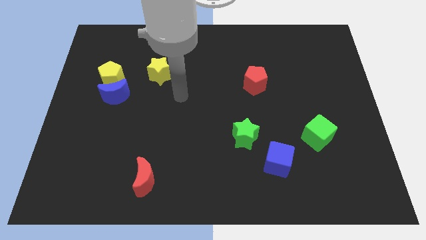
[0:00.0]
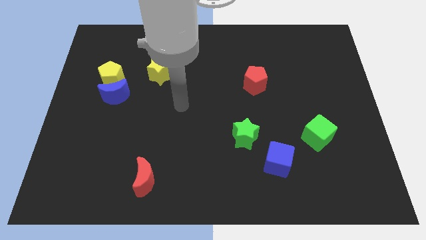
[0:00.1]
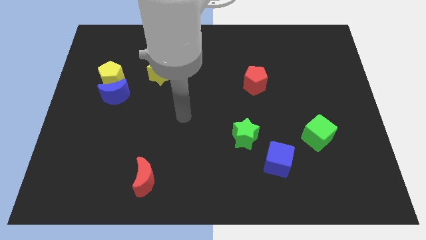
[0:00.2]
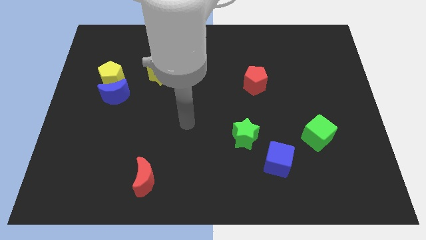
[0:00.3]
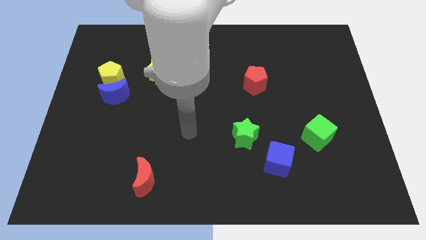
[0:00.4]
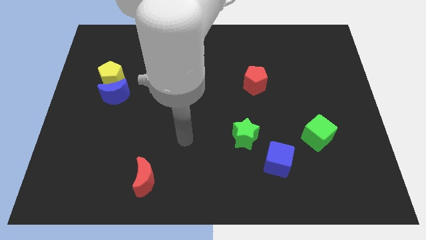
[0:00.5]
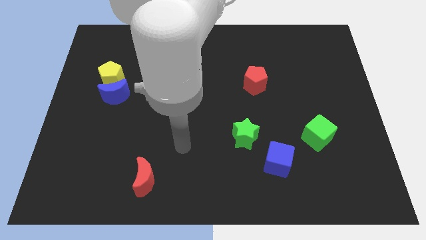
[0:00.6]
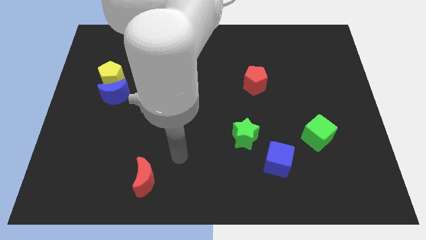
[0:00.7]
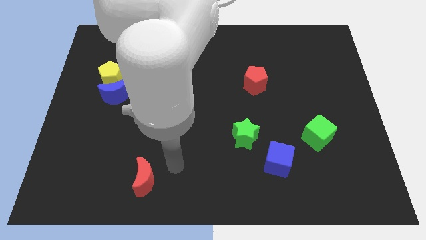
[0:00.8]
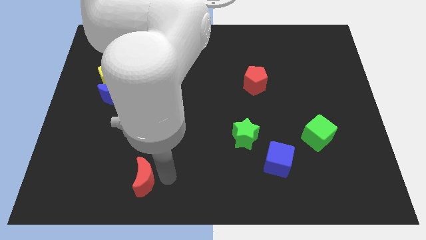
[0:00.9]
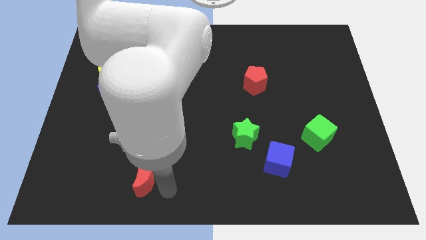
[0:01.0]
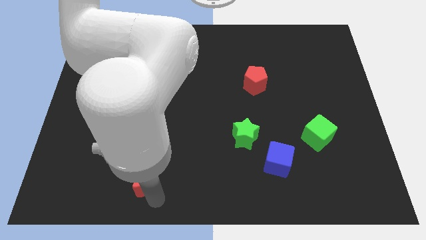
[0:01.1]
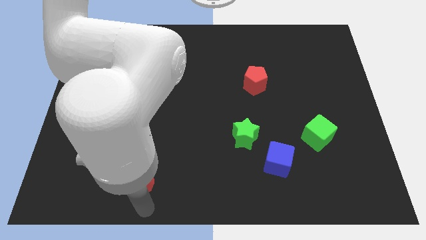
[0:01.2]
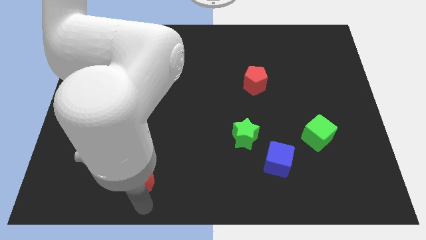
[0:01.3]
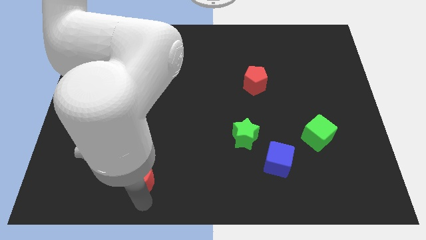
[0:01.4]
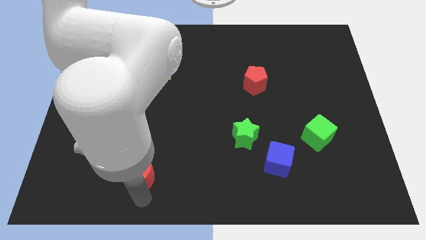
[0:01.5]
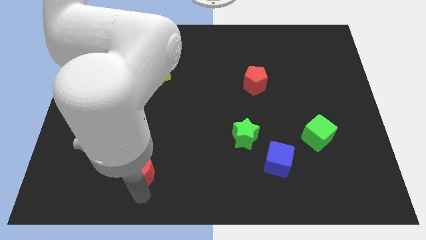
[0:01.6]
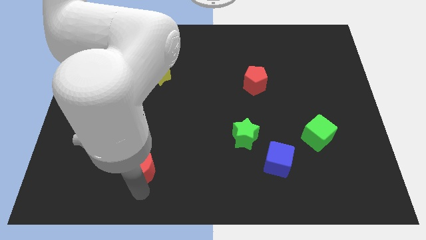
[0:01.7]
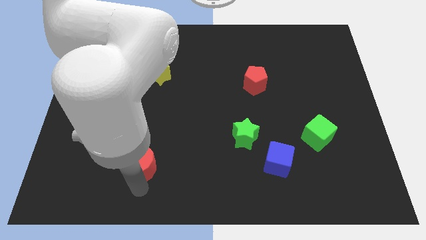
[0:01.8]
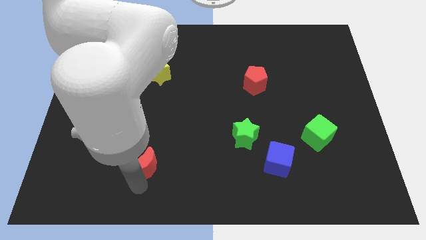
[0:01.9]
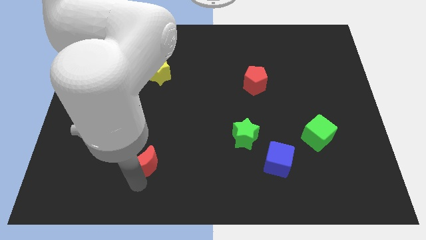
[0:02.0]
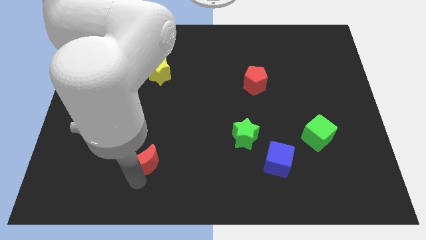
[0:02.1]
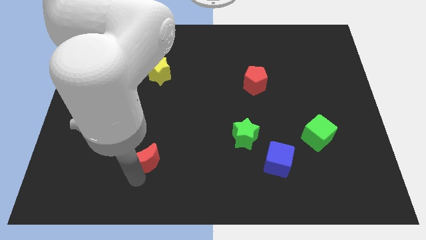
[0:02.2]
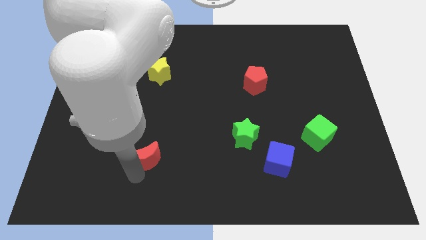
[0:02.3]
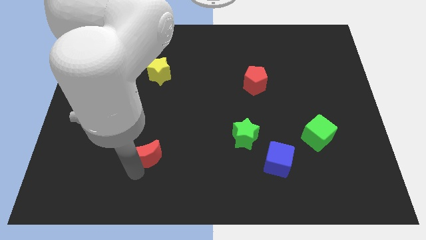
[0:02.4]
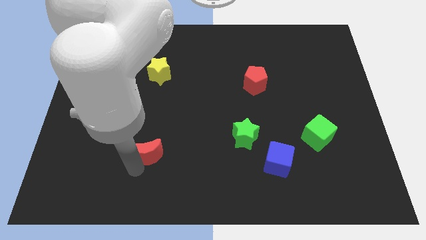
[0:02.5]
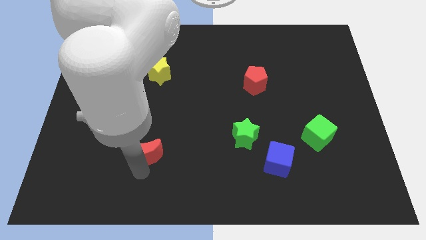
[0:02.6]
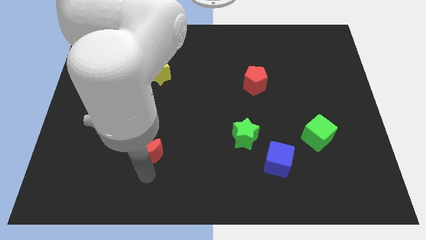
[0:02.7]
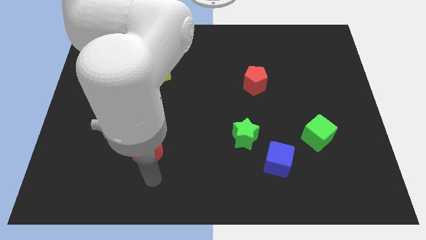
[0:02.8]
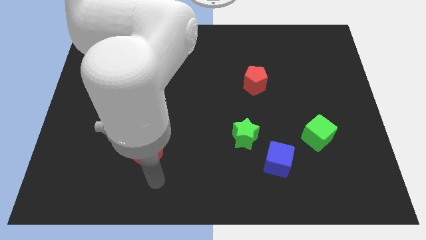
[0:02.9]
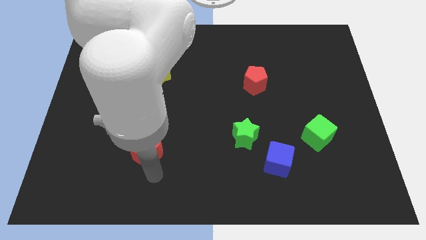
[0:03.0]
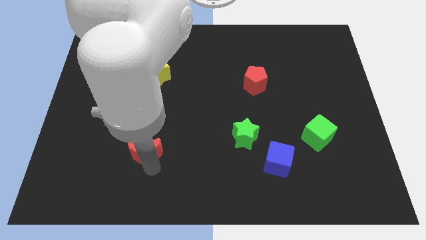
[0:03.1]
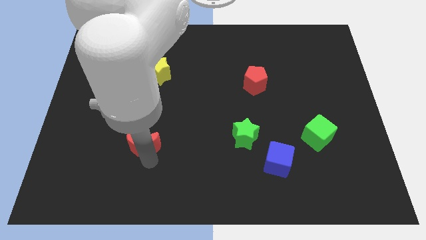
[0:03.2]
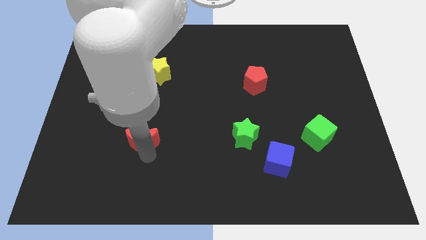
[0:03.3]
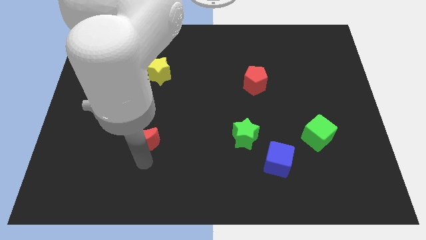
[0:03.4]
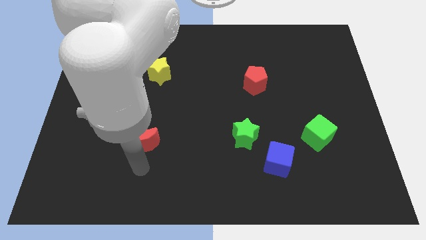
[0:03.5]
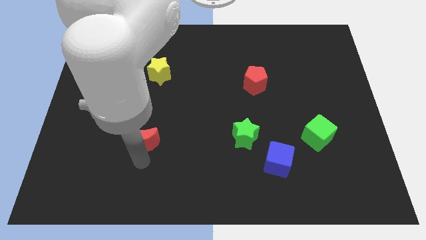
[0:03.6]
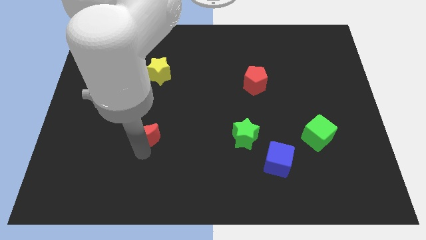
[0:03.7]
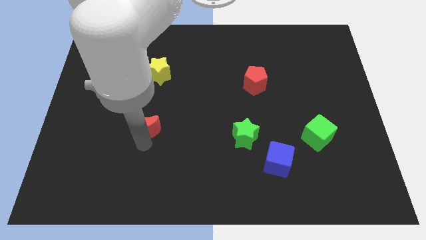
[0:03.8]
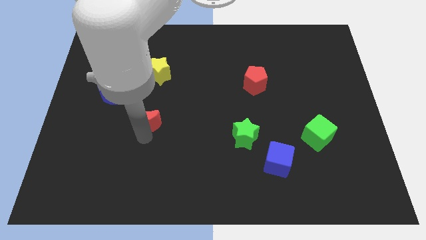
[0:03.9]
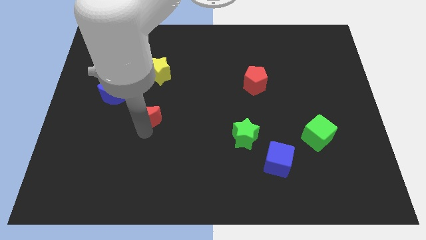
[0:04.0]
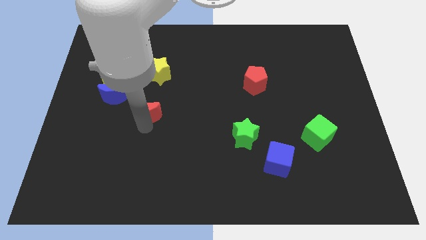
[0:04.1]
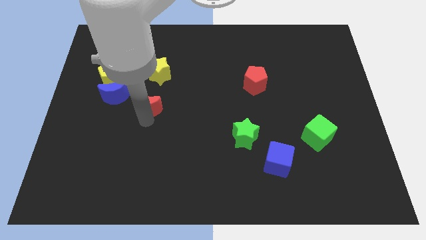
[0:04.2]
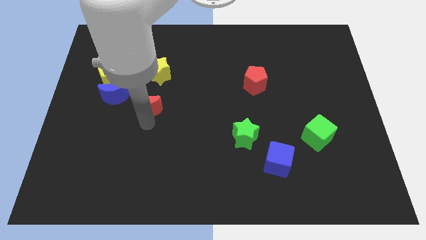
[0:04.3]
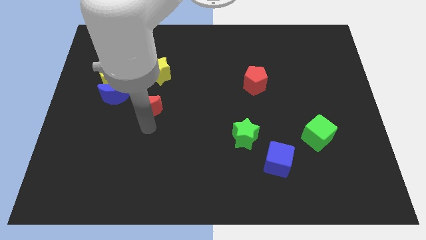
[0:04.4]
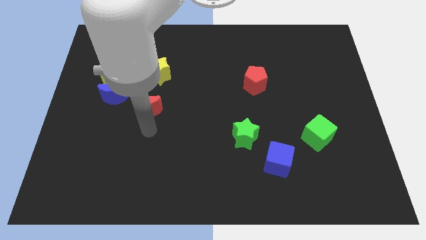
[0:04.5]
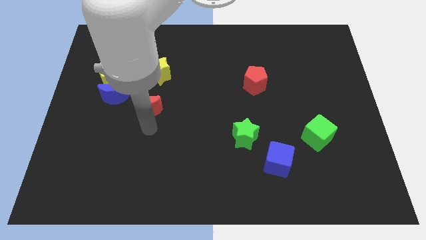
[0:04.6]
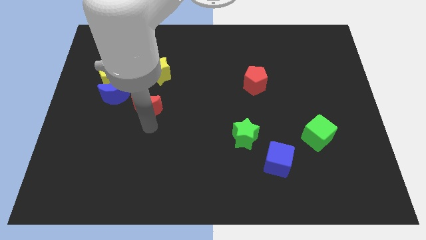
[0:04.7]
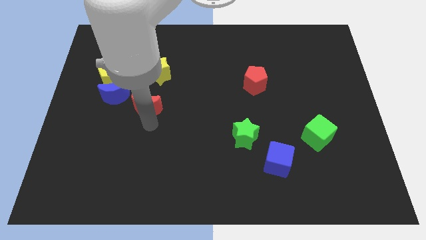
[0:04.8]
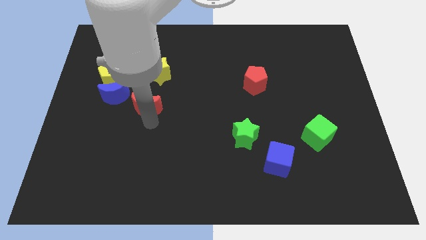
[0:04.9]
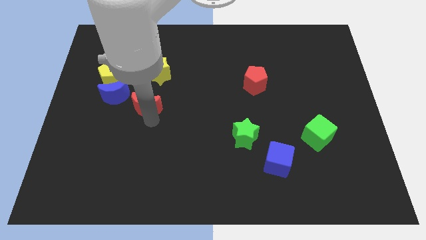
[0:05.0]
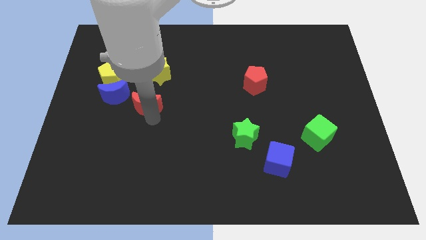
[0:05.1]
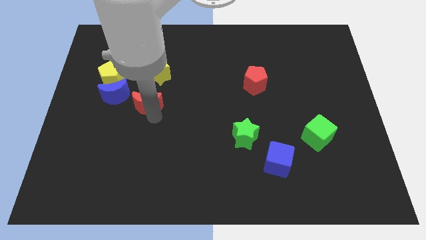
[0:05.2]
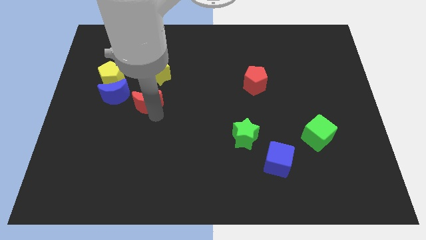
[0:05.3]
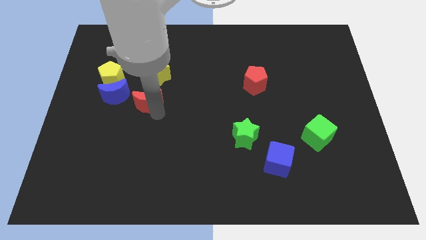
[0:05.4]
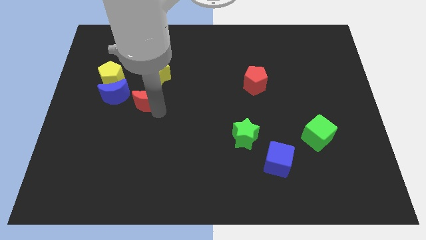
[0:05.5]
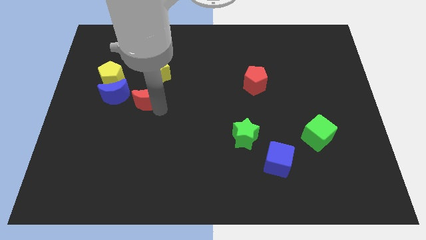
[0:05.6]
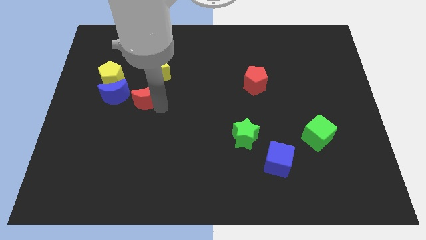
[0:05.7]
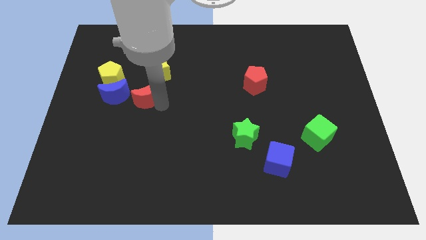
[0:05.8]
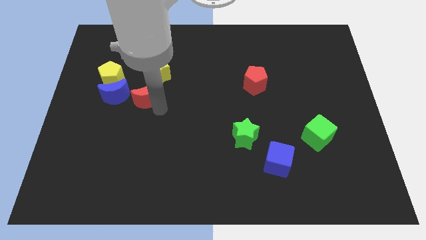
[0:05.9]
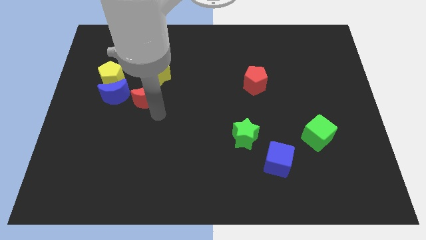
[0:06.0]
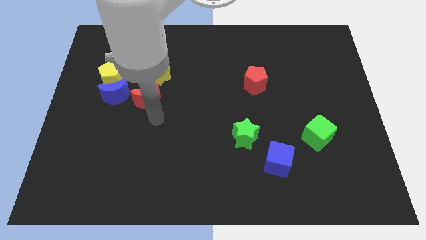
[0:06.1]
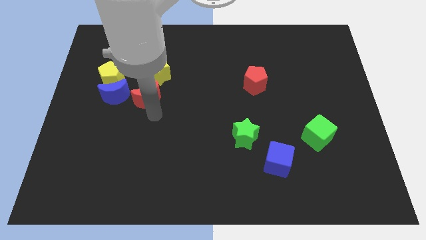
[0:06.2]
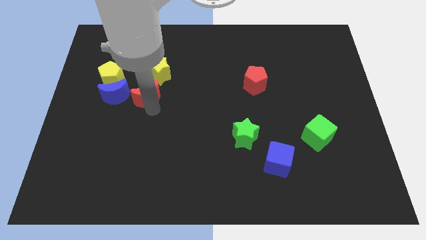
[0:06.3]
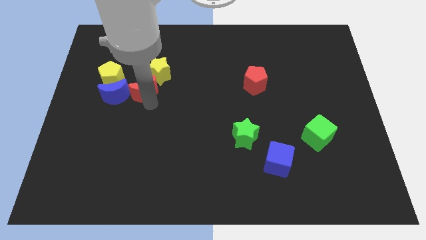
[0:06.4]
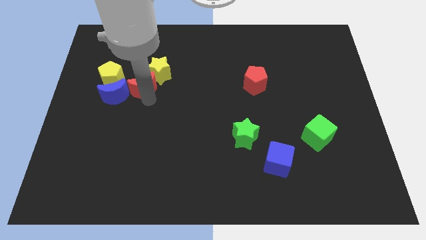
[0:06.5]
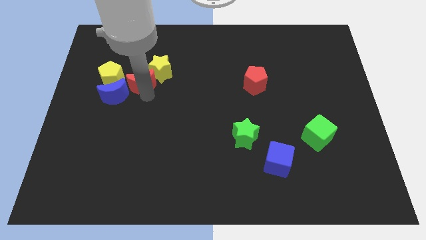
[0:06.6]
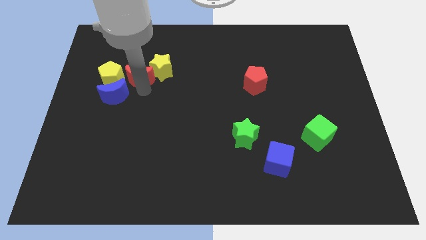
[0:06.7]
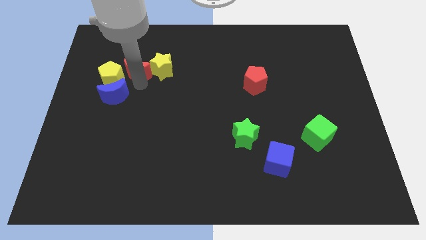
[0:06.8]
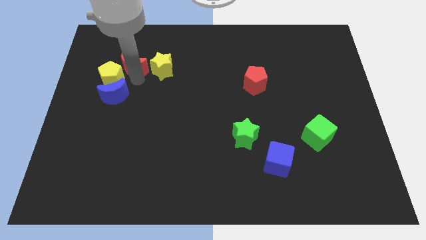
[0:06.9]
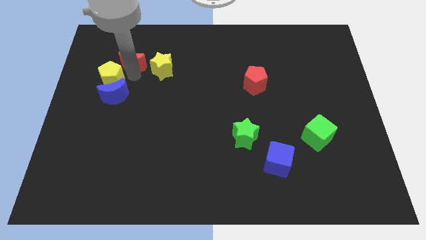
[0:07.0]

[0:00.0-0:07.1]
slide the red moon to the top left of the yellow star

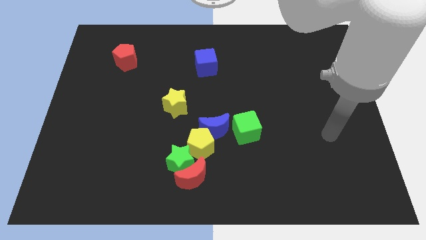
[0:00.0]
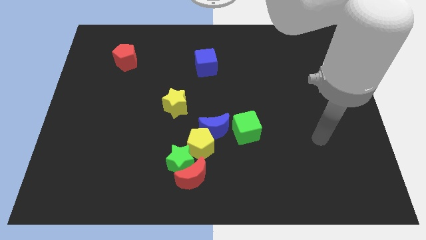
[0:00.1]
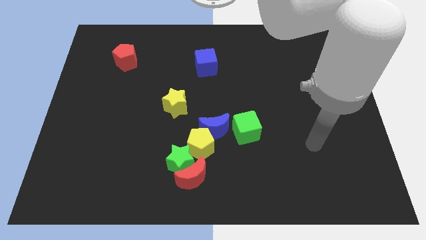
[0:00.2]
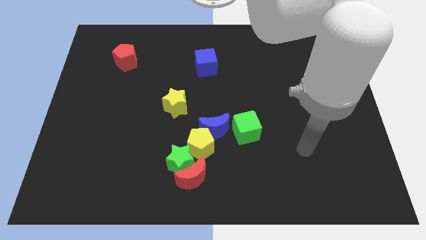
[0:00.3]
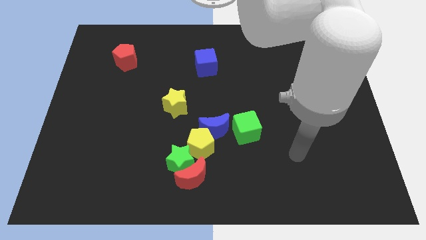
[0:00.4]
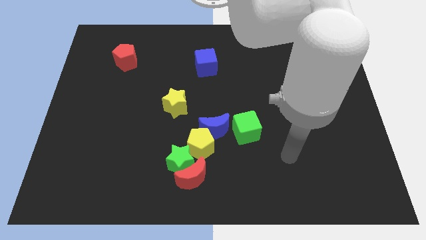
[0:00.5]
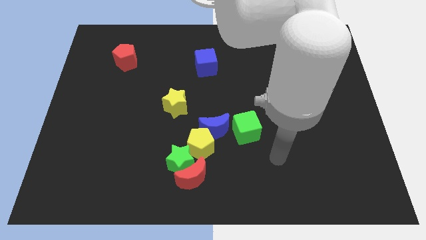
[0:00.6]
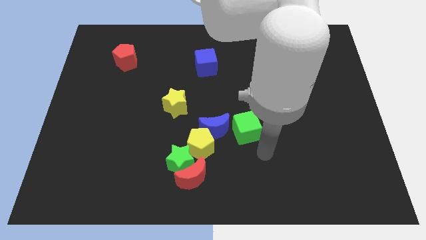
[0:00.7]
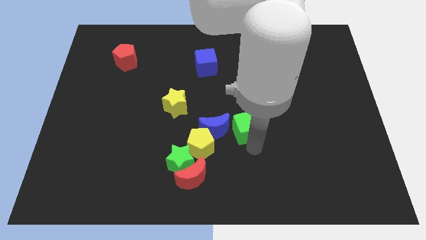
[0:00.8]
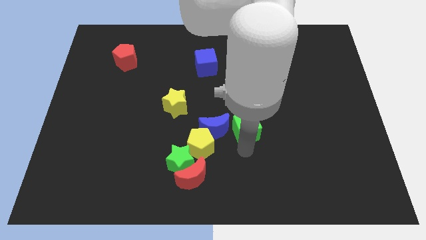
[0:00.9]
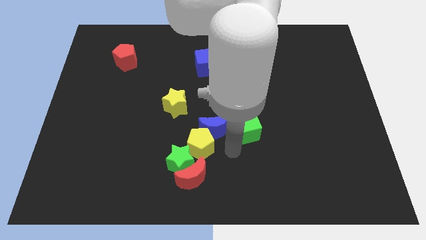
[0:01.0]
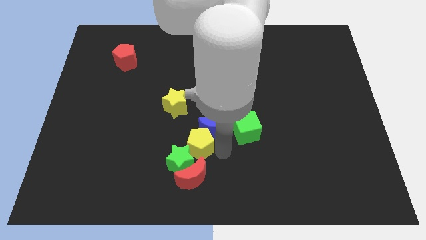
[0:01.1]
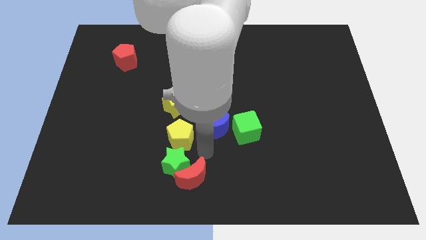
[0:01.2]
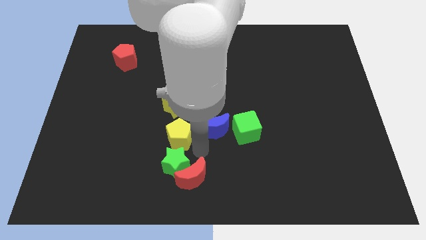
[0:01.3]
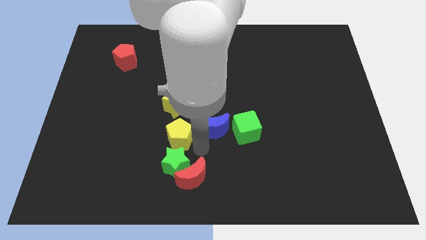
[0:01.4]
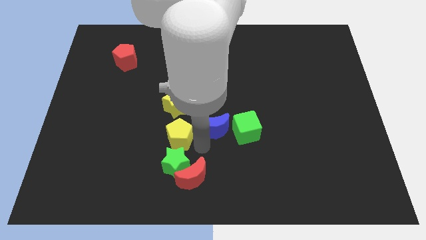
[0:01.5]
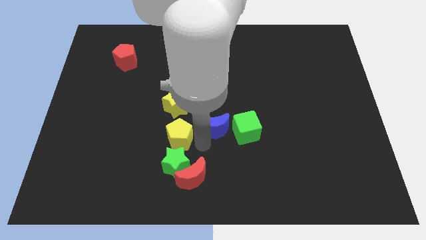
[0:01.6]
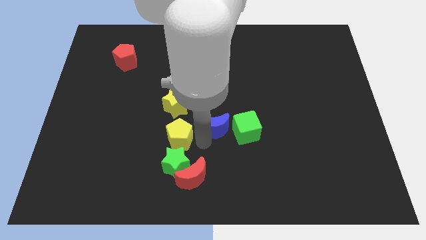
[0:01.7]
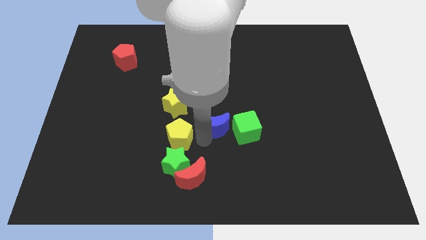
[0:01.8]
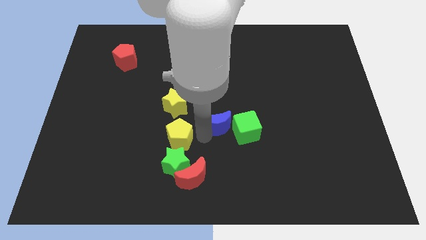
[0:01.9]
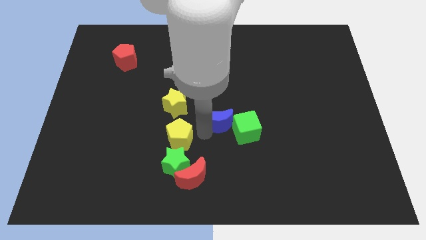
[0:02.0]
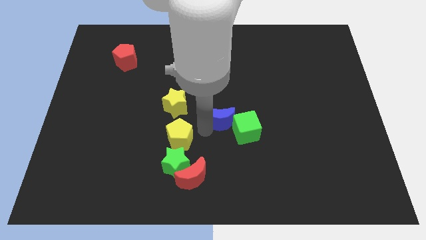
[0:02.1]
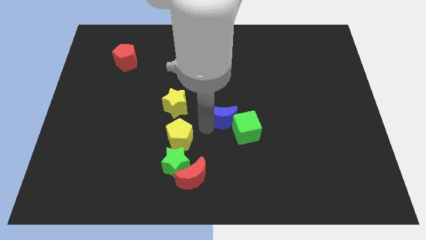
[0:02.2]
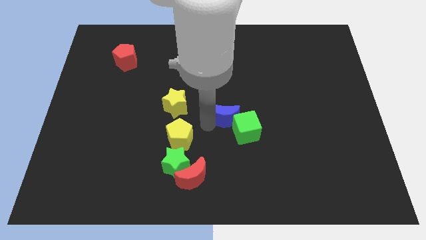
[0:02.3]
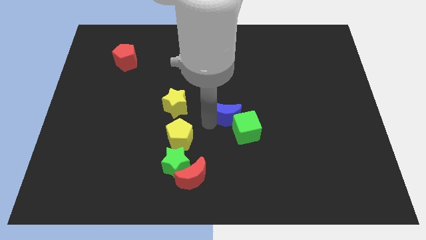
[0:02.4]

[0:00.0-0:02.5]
push the blue moon to the top side of the green cube
